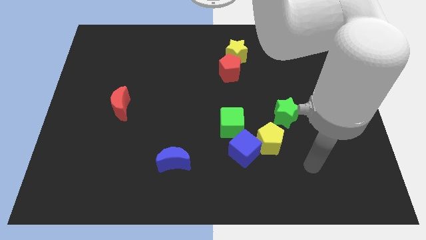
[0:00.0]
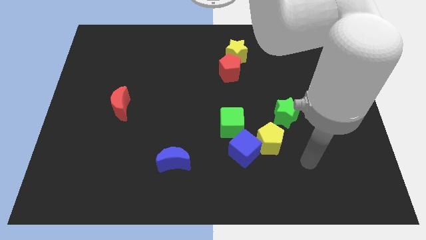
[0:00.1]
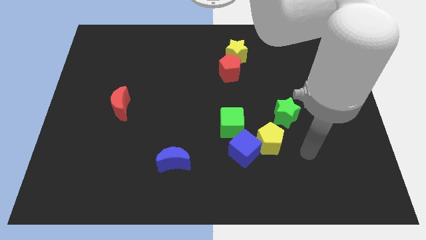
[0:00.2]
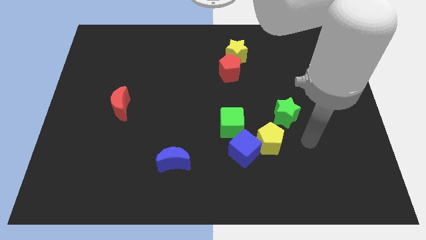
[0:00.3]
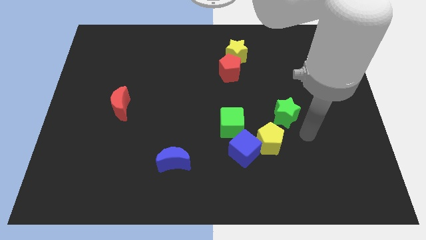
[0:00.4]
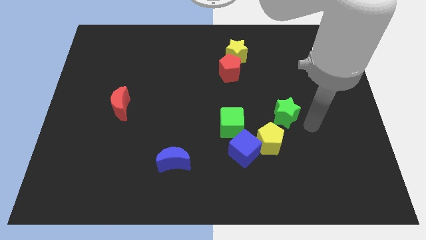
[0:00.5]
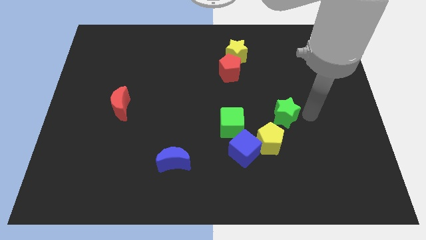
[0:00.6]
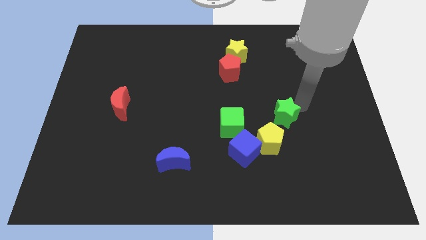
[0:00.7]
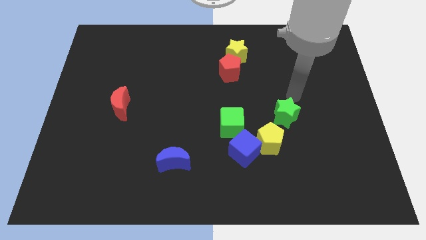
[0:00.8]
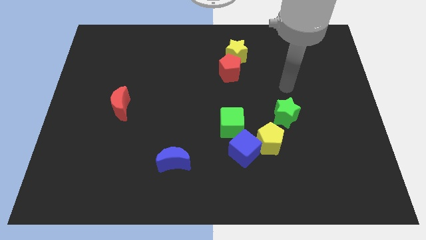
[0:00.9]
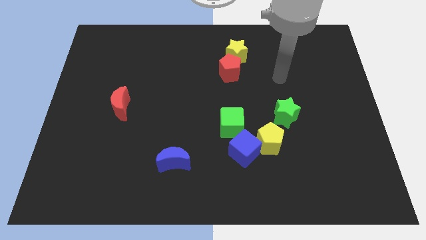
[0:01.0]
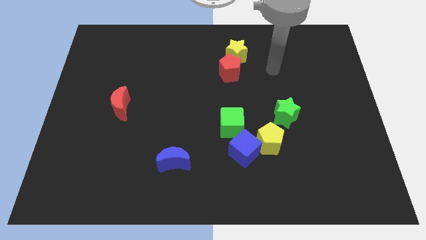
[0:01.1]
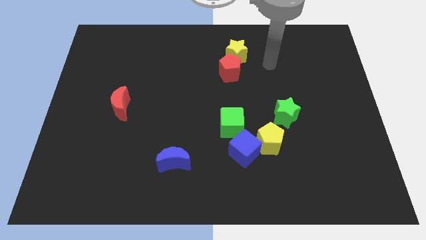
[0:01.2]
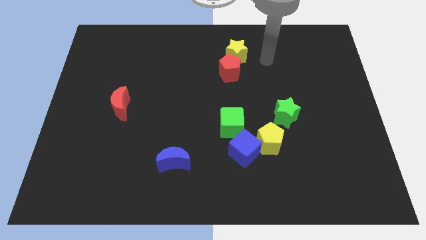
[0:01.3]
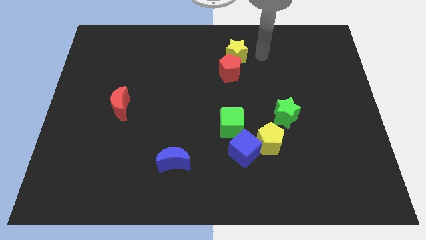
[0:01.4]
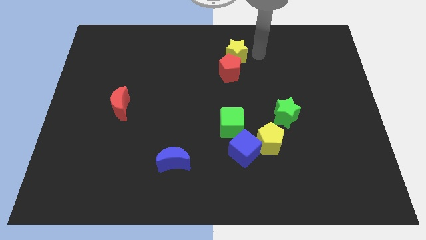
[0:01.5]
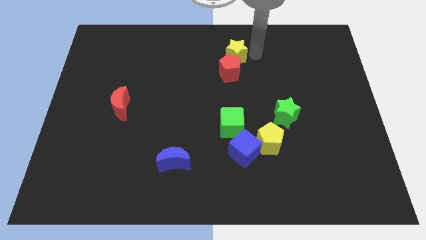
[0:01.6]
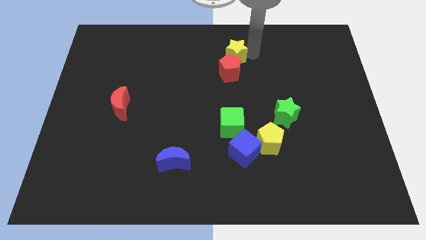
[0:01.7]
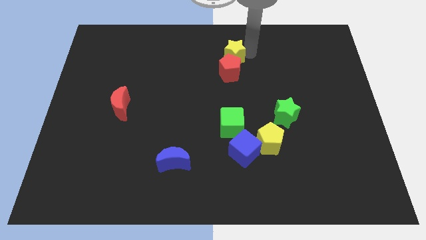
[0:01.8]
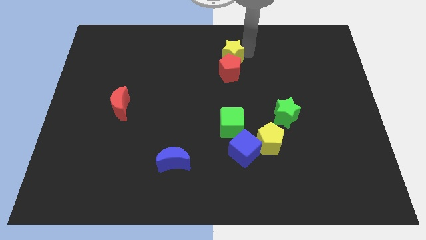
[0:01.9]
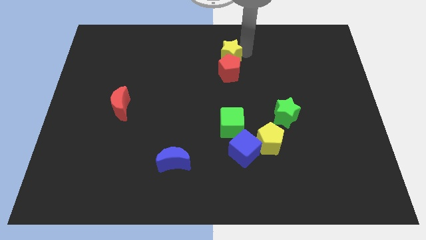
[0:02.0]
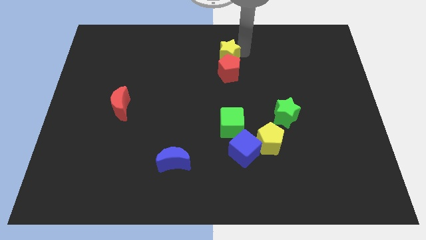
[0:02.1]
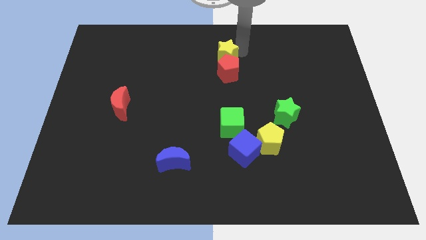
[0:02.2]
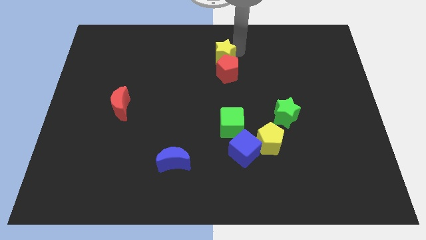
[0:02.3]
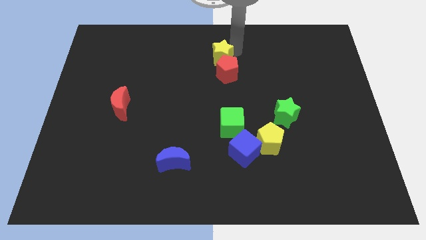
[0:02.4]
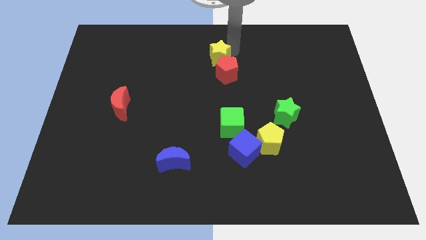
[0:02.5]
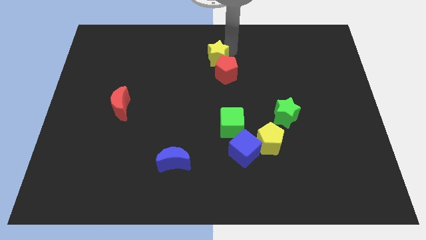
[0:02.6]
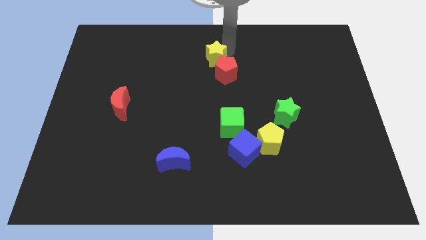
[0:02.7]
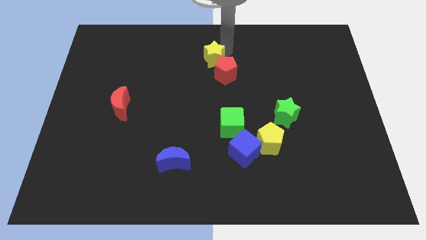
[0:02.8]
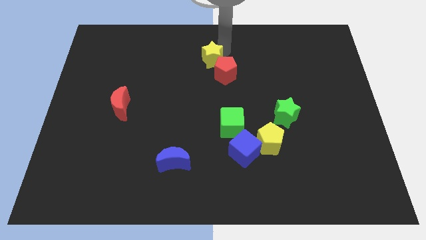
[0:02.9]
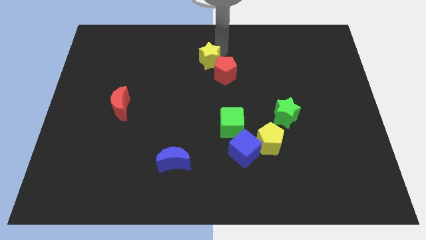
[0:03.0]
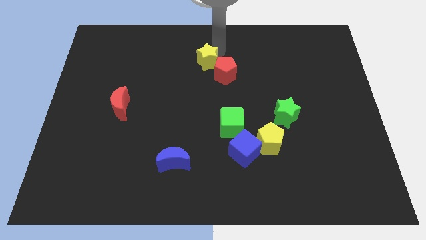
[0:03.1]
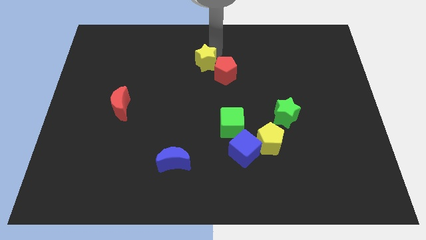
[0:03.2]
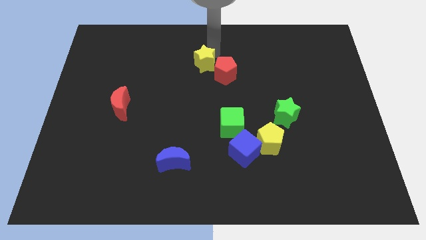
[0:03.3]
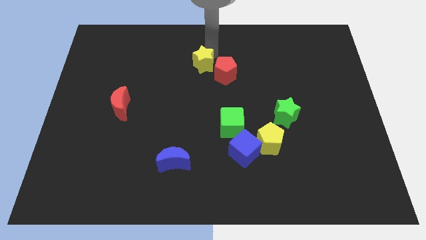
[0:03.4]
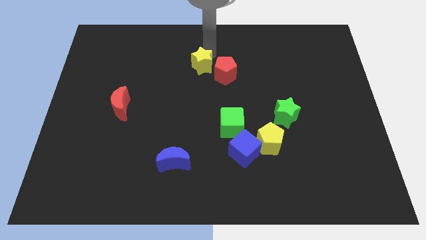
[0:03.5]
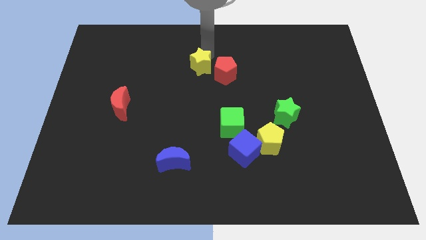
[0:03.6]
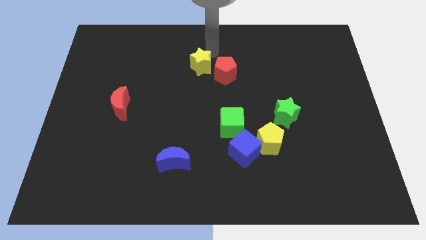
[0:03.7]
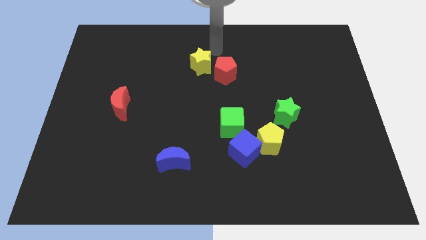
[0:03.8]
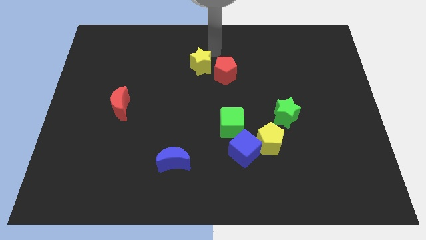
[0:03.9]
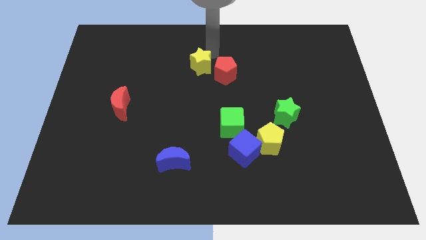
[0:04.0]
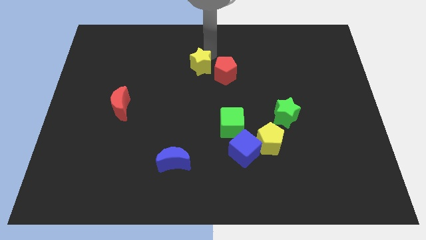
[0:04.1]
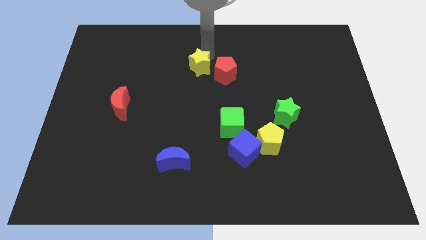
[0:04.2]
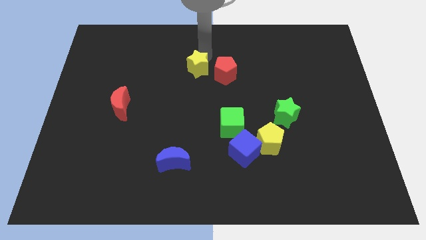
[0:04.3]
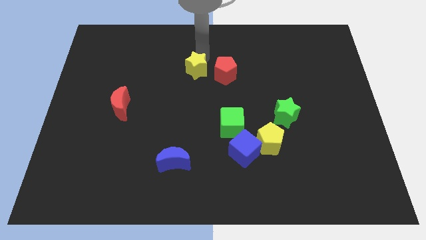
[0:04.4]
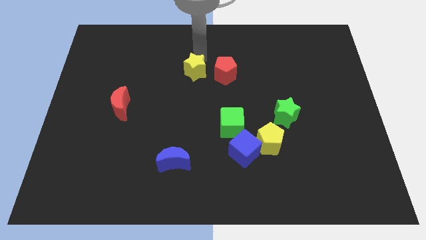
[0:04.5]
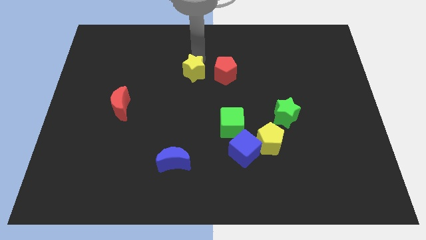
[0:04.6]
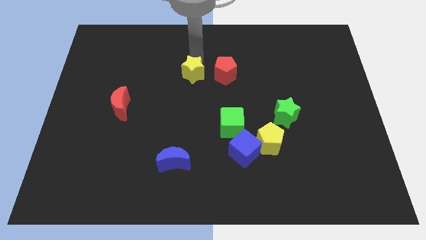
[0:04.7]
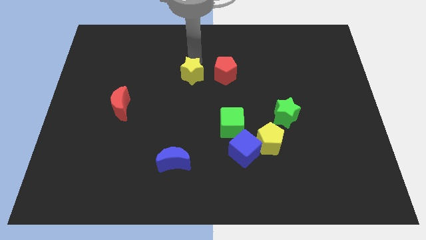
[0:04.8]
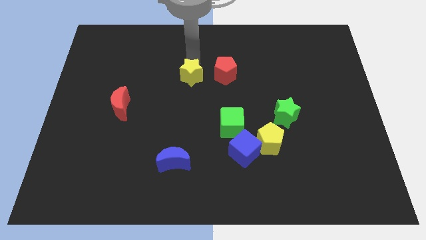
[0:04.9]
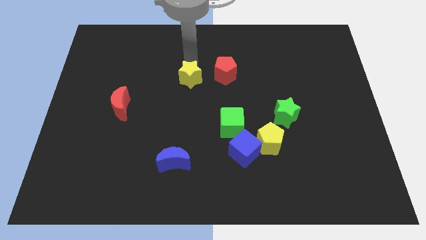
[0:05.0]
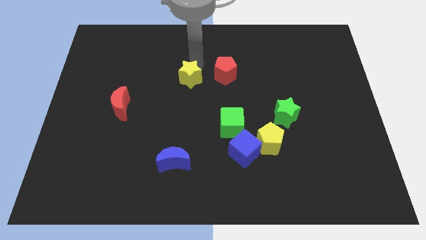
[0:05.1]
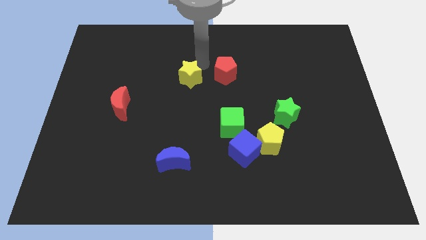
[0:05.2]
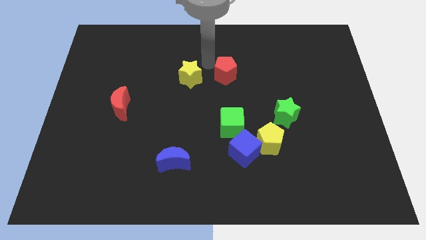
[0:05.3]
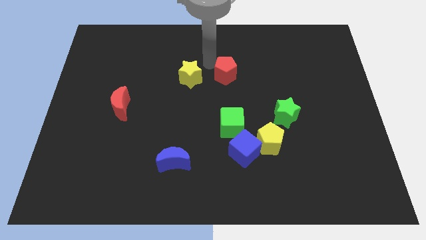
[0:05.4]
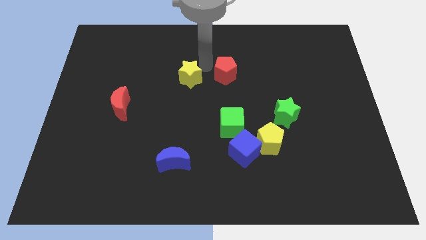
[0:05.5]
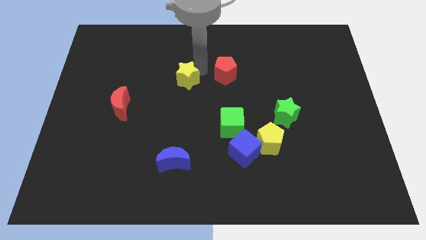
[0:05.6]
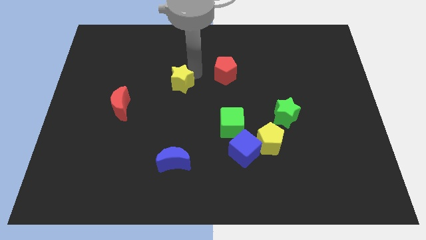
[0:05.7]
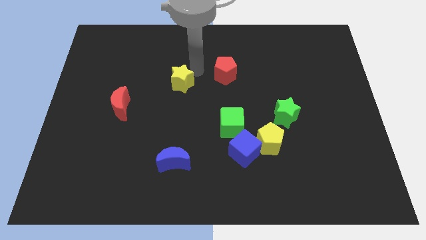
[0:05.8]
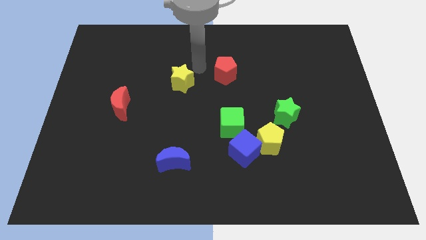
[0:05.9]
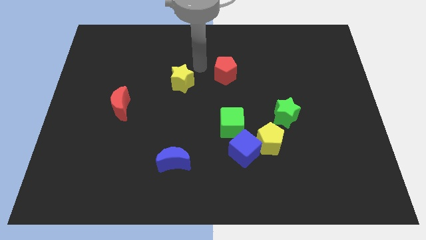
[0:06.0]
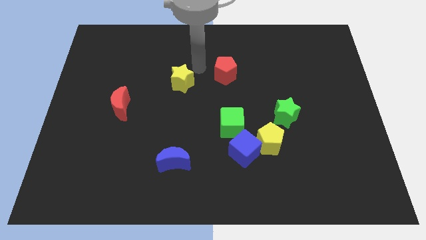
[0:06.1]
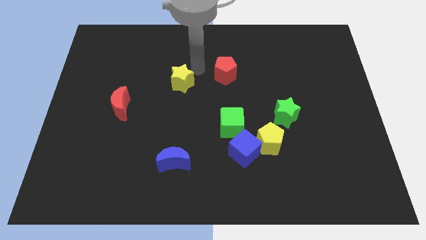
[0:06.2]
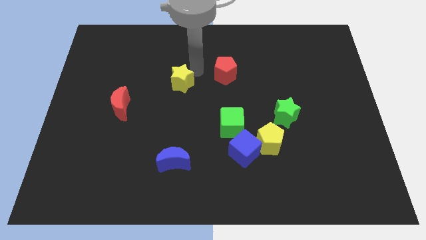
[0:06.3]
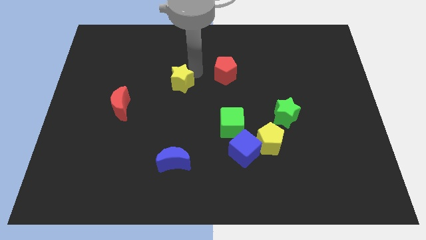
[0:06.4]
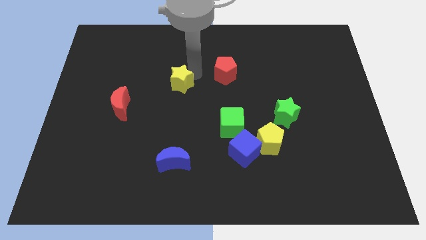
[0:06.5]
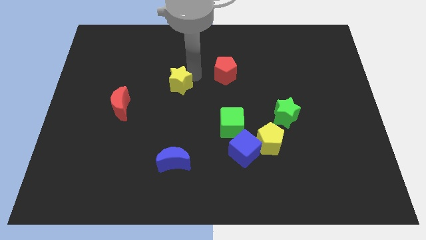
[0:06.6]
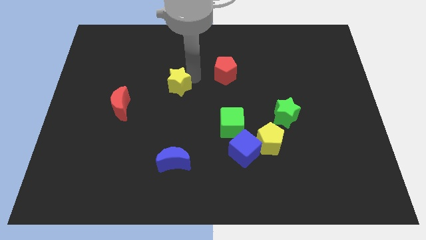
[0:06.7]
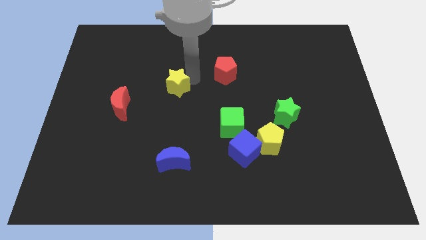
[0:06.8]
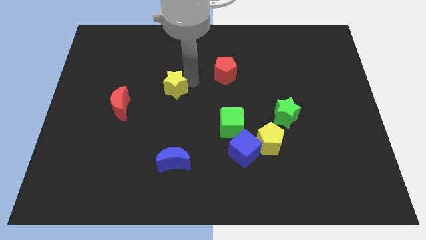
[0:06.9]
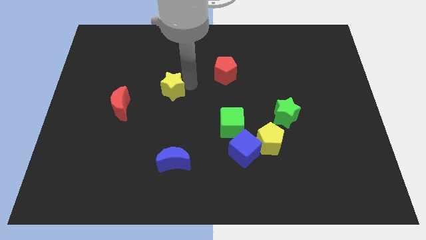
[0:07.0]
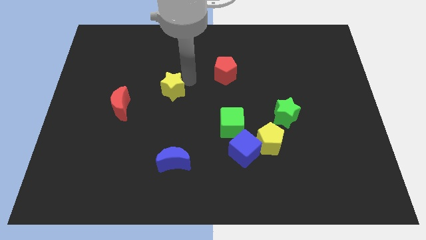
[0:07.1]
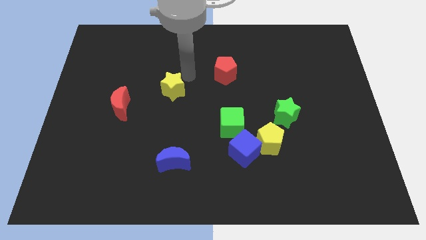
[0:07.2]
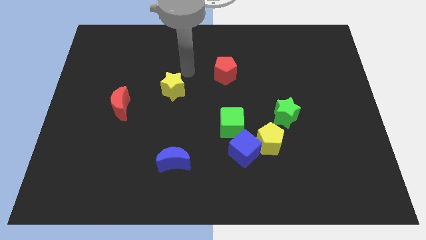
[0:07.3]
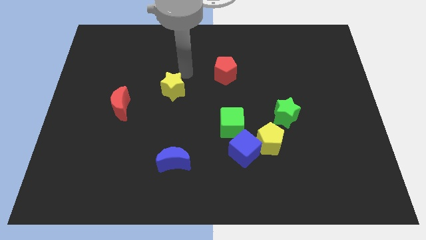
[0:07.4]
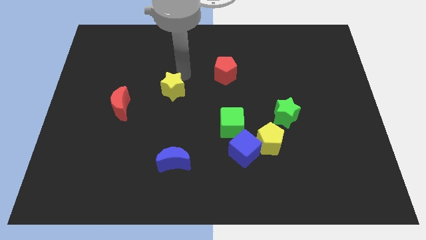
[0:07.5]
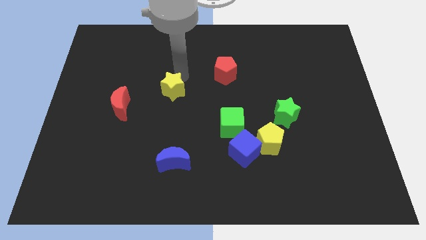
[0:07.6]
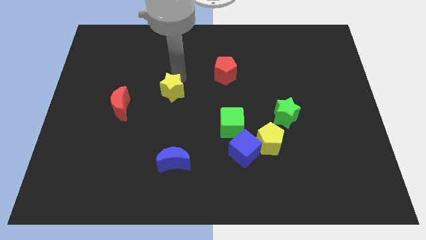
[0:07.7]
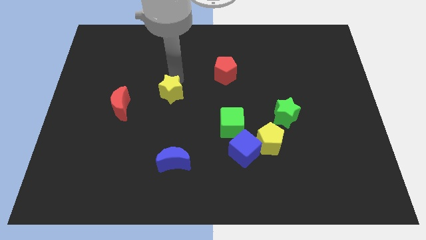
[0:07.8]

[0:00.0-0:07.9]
slide the yellow star down and to the left
